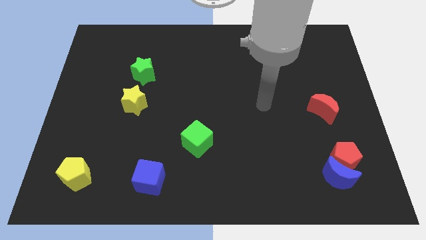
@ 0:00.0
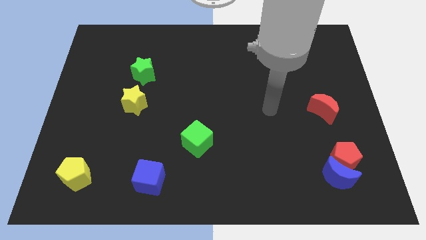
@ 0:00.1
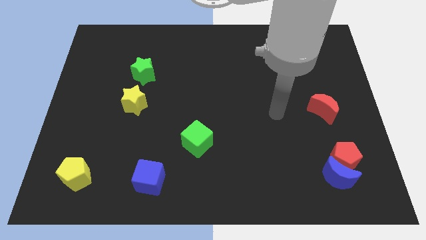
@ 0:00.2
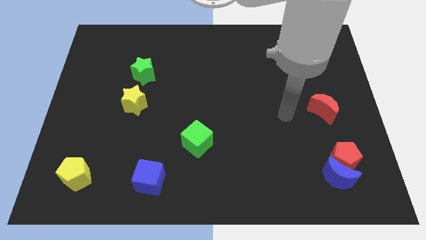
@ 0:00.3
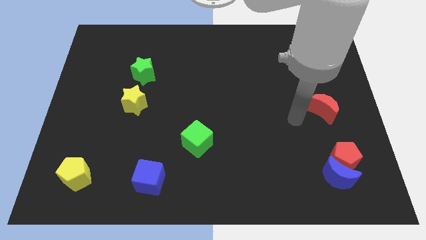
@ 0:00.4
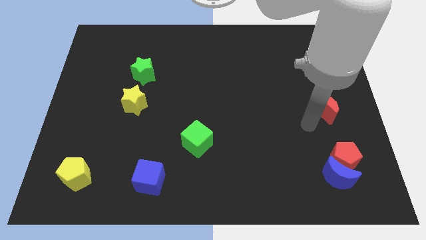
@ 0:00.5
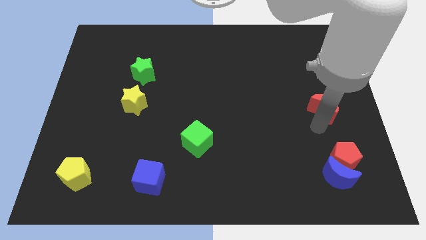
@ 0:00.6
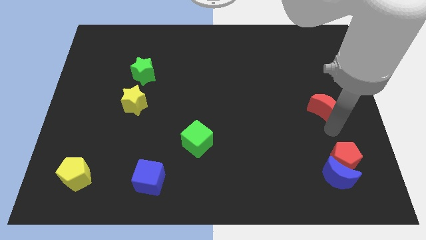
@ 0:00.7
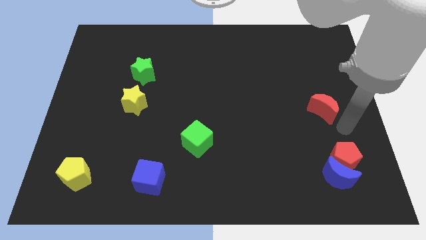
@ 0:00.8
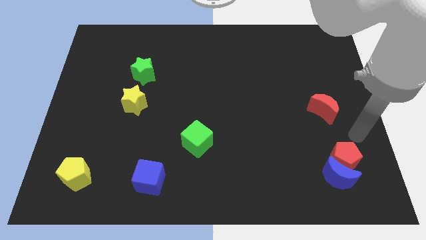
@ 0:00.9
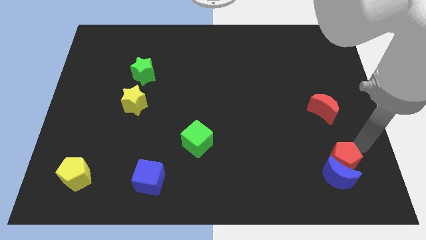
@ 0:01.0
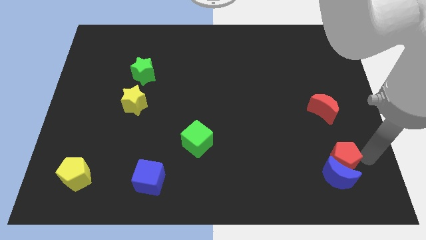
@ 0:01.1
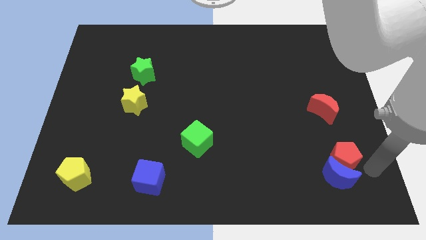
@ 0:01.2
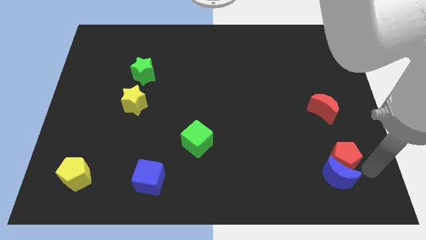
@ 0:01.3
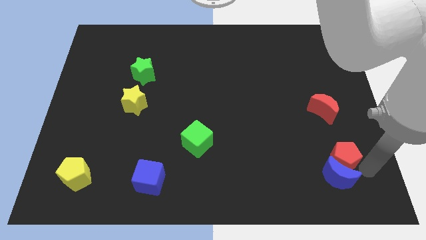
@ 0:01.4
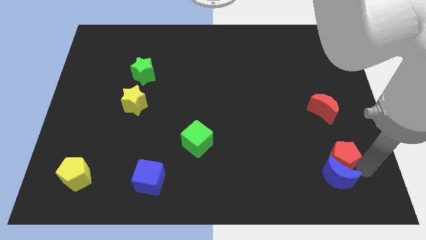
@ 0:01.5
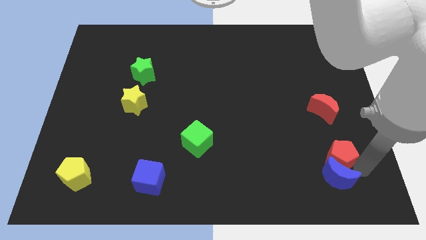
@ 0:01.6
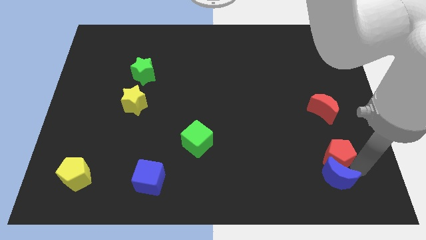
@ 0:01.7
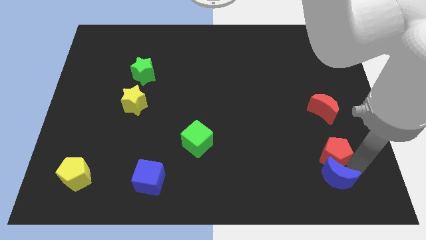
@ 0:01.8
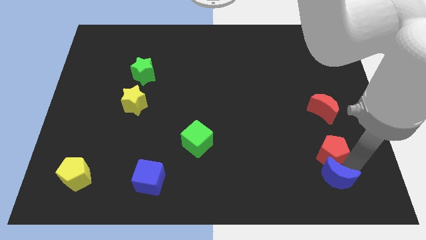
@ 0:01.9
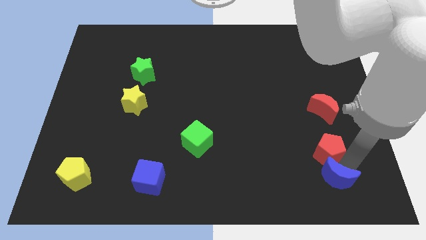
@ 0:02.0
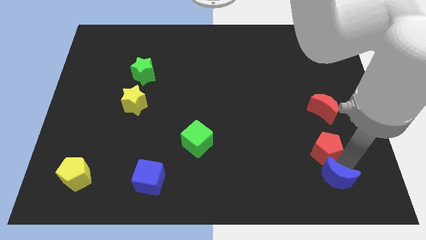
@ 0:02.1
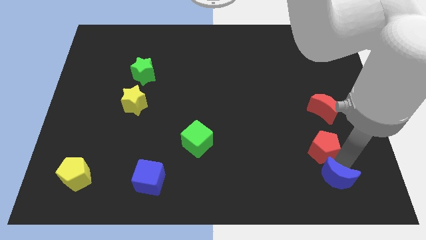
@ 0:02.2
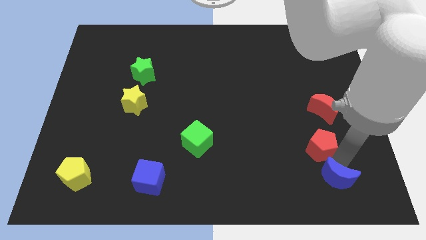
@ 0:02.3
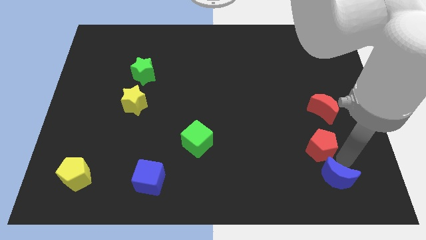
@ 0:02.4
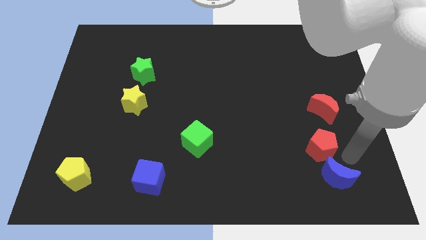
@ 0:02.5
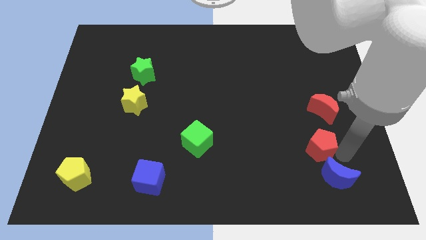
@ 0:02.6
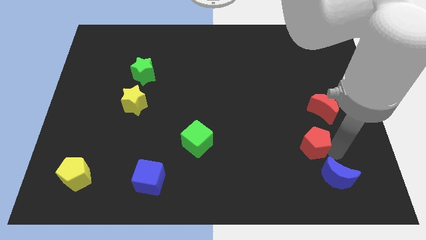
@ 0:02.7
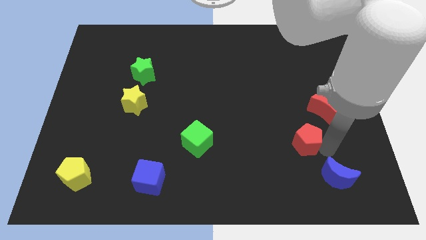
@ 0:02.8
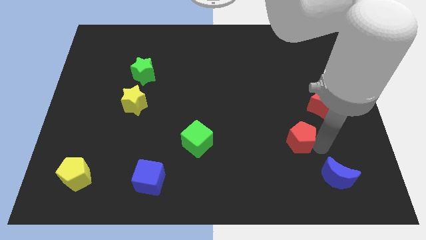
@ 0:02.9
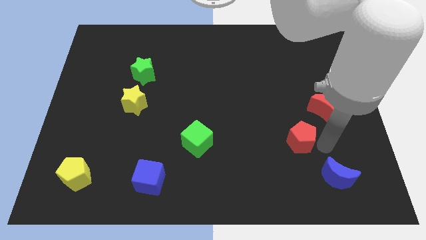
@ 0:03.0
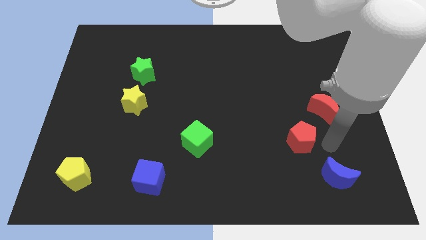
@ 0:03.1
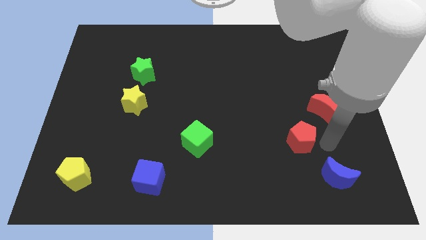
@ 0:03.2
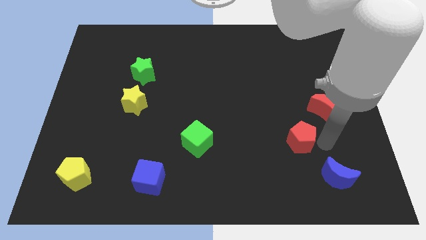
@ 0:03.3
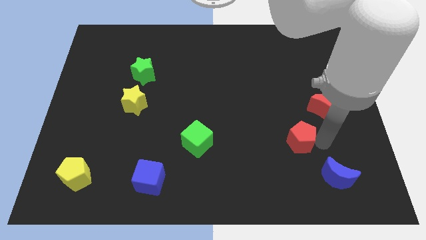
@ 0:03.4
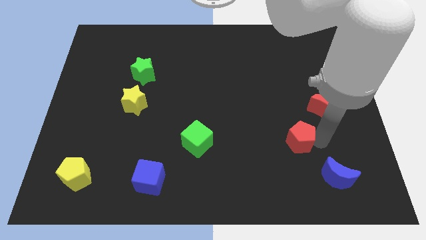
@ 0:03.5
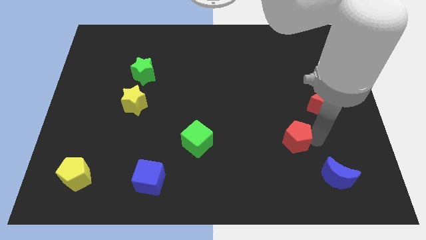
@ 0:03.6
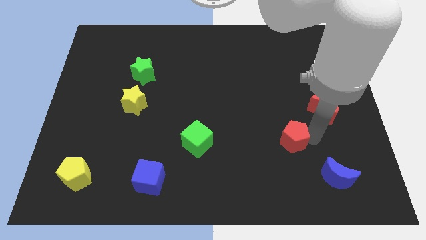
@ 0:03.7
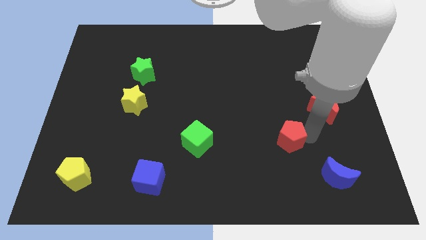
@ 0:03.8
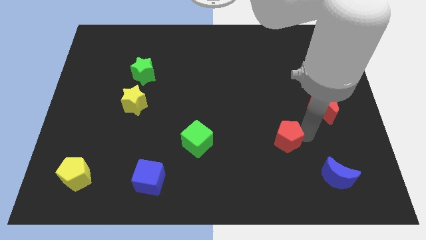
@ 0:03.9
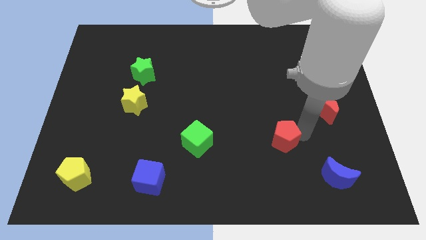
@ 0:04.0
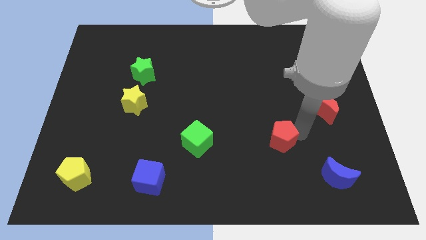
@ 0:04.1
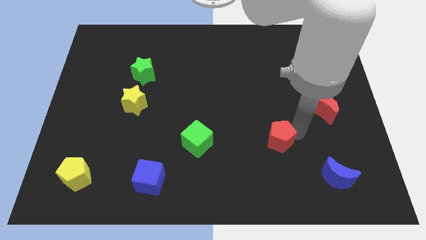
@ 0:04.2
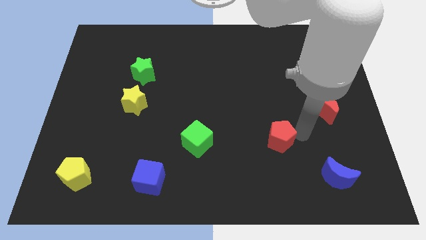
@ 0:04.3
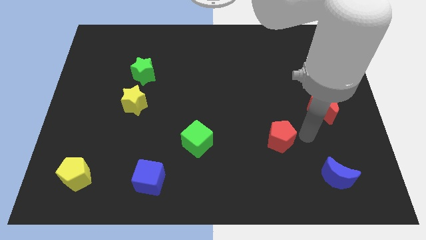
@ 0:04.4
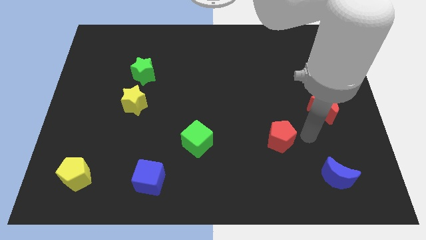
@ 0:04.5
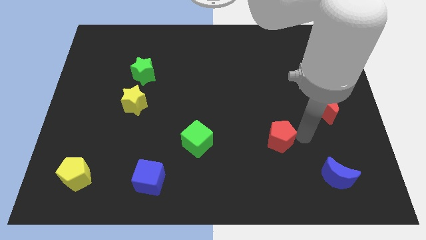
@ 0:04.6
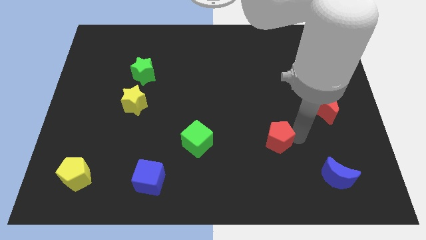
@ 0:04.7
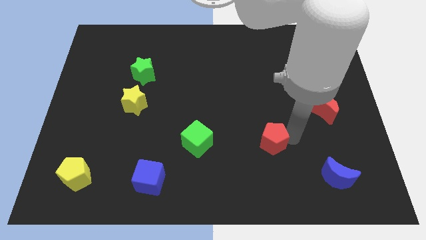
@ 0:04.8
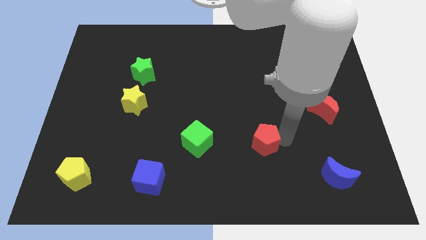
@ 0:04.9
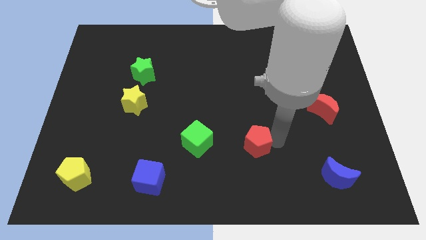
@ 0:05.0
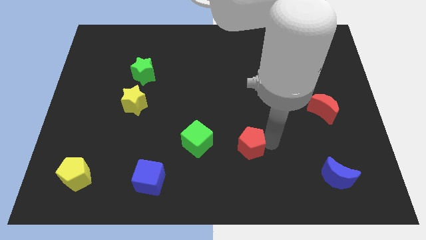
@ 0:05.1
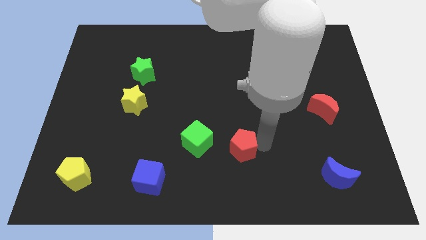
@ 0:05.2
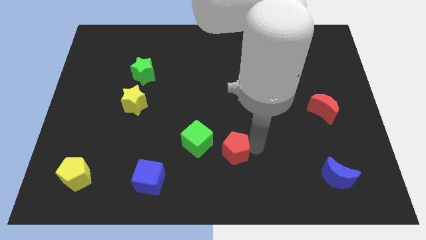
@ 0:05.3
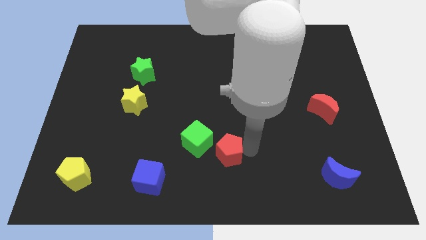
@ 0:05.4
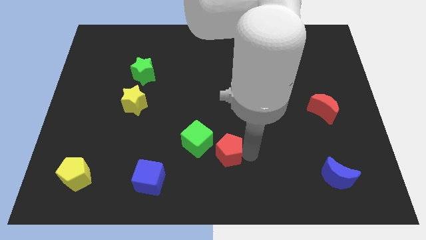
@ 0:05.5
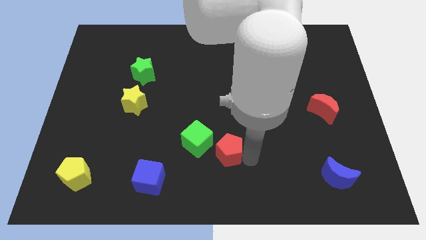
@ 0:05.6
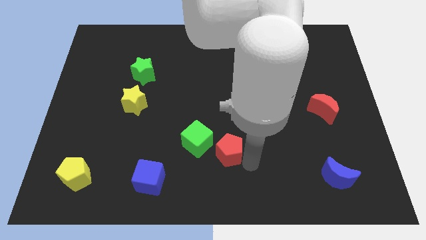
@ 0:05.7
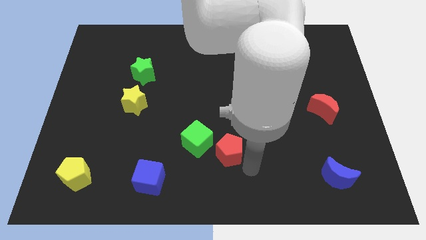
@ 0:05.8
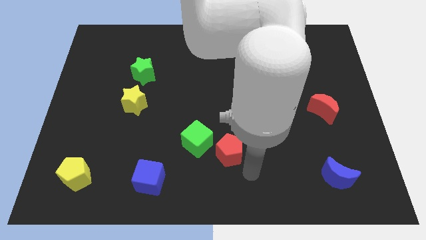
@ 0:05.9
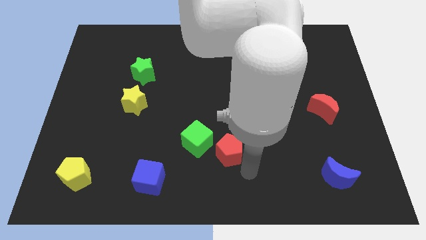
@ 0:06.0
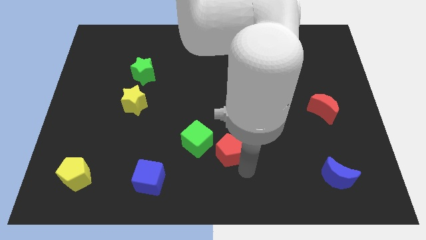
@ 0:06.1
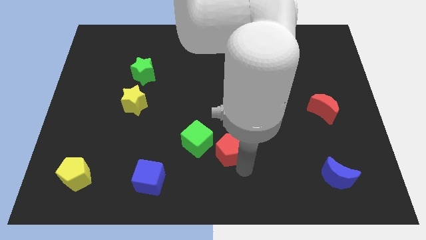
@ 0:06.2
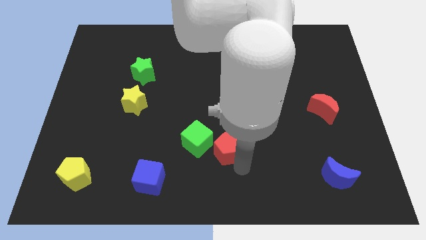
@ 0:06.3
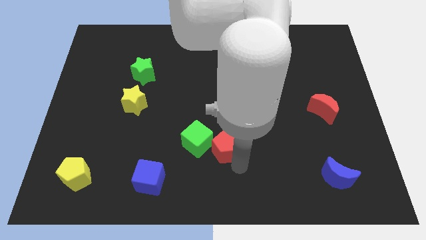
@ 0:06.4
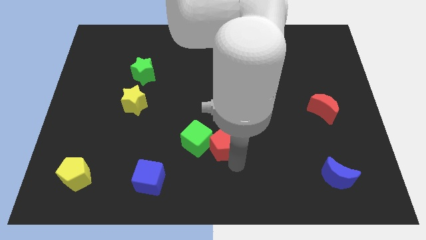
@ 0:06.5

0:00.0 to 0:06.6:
put the red pentagon towards the green cube

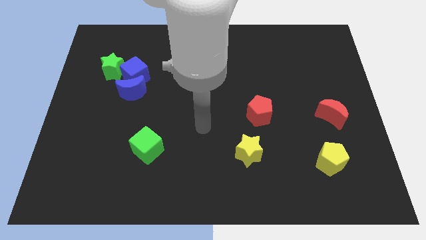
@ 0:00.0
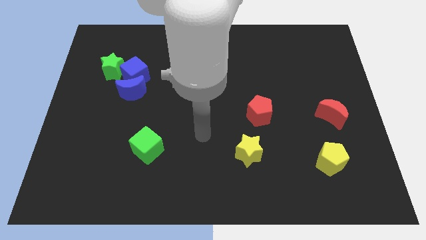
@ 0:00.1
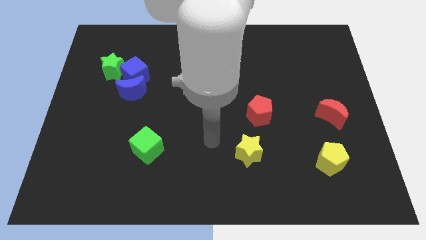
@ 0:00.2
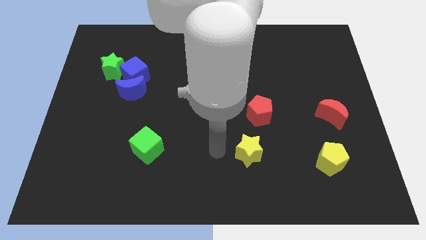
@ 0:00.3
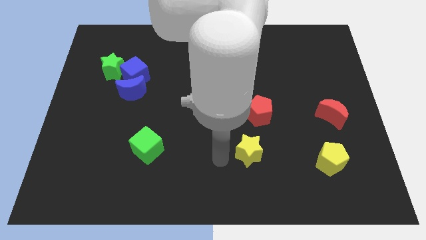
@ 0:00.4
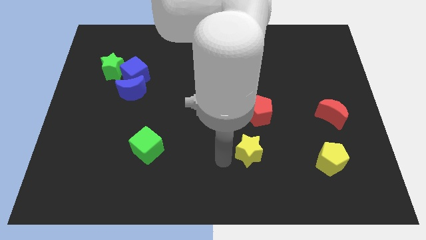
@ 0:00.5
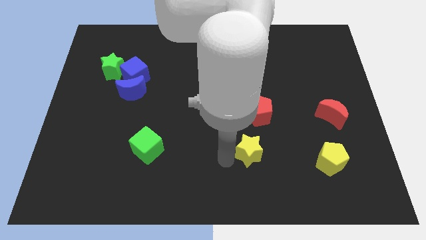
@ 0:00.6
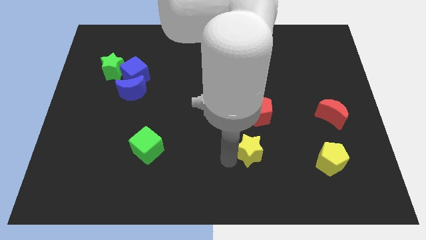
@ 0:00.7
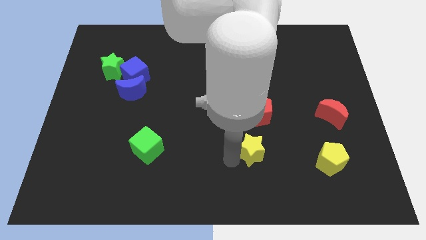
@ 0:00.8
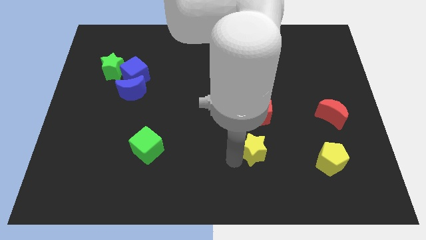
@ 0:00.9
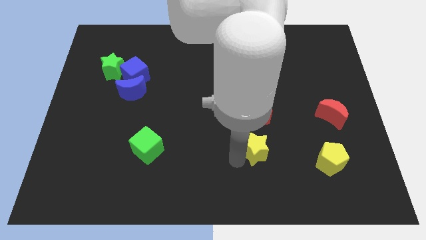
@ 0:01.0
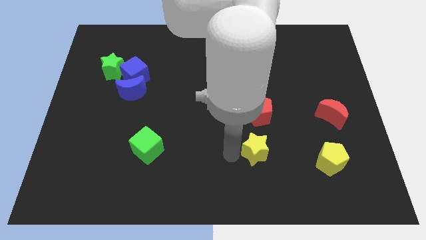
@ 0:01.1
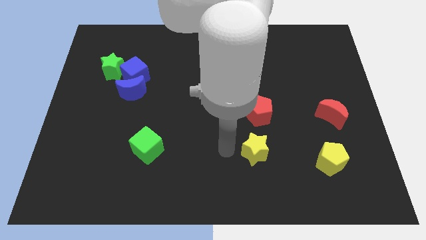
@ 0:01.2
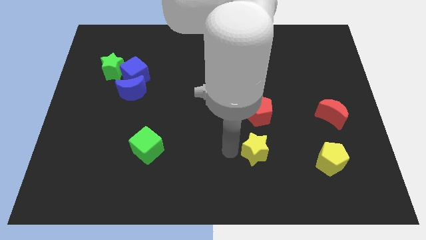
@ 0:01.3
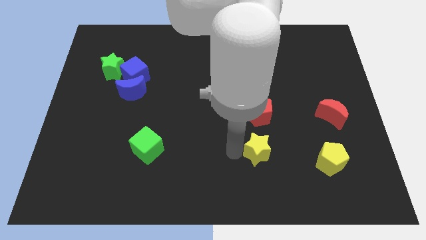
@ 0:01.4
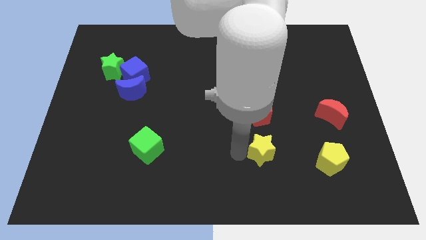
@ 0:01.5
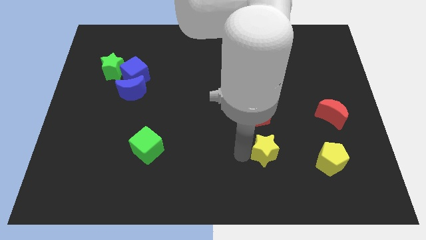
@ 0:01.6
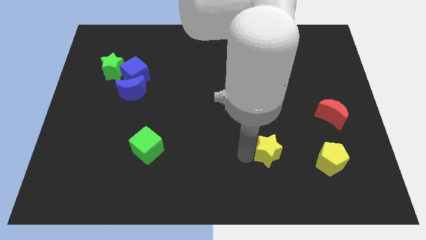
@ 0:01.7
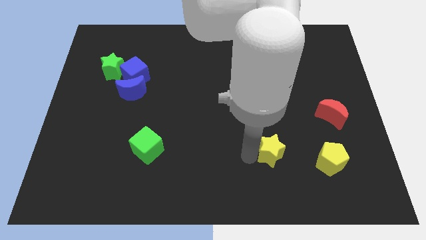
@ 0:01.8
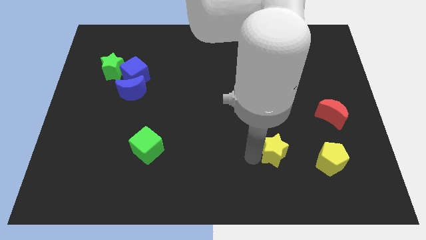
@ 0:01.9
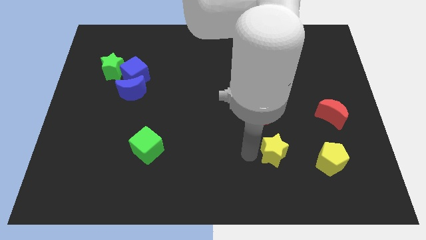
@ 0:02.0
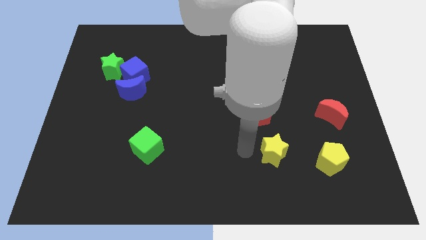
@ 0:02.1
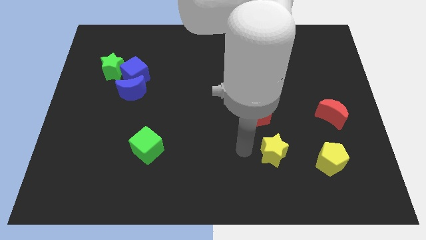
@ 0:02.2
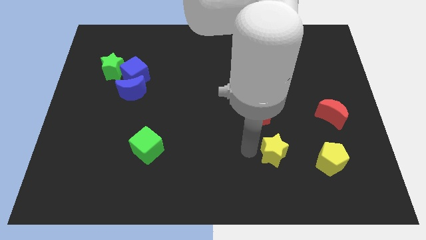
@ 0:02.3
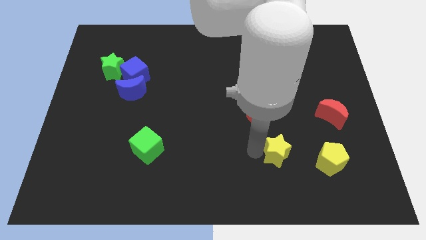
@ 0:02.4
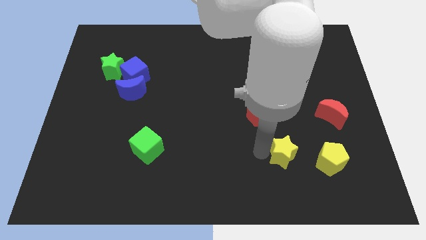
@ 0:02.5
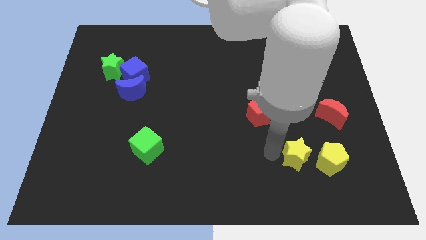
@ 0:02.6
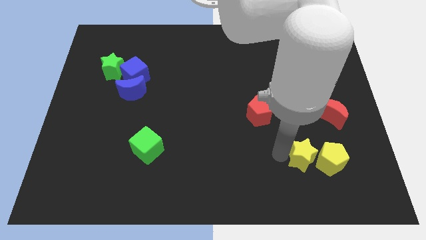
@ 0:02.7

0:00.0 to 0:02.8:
push the yellow star to the yellow pentagon
